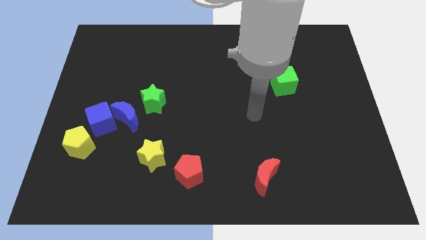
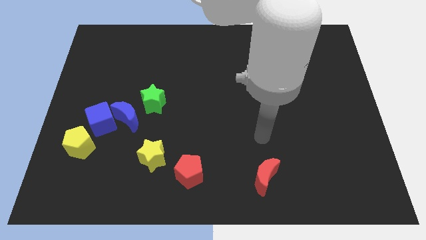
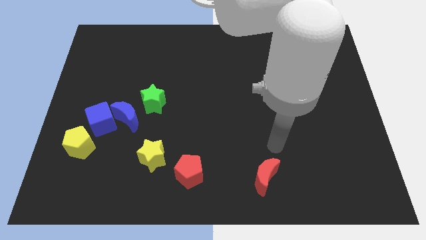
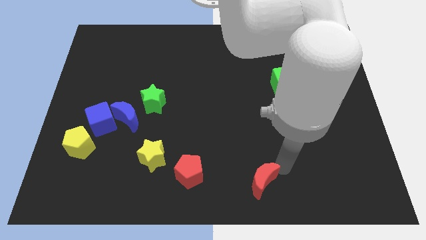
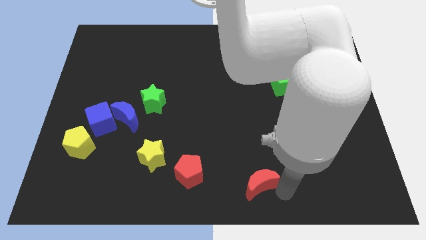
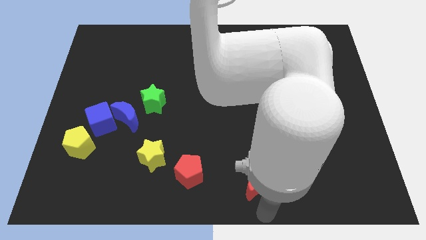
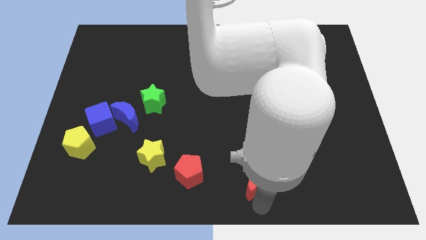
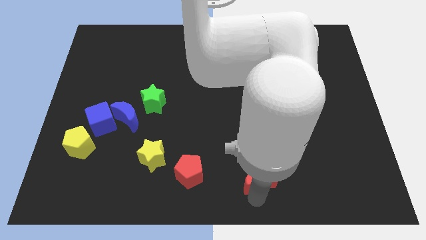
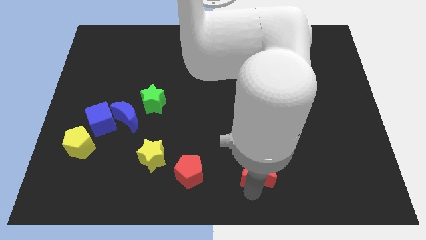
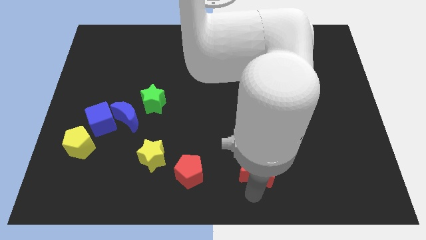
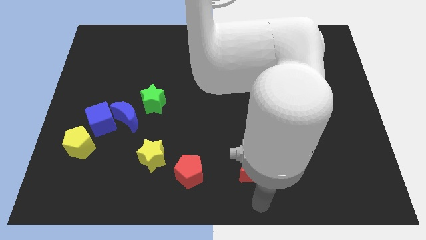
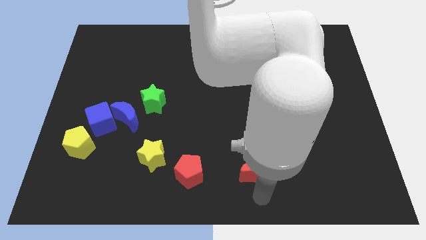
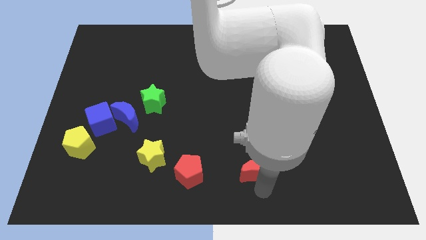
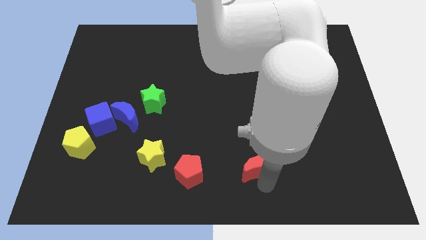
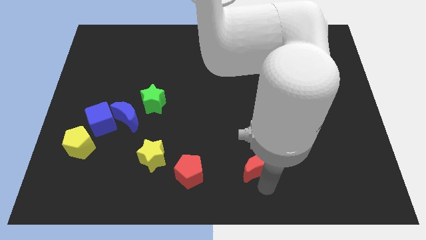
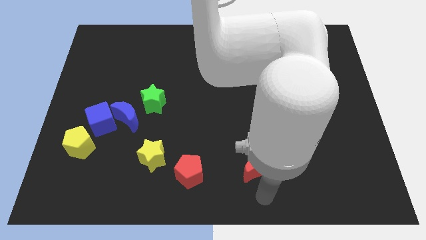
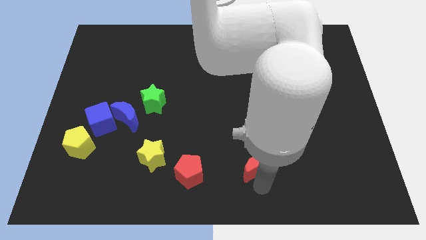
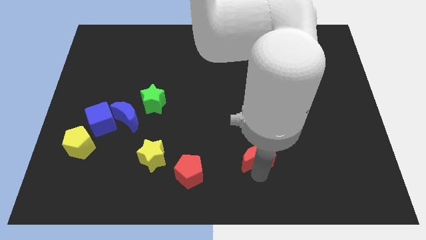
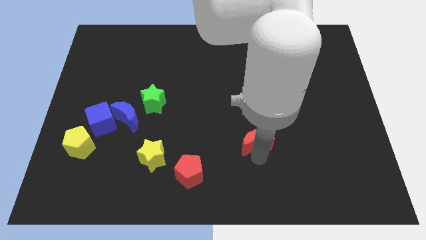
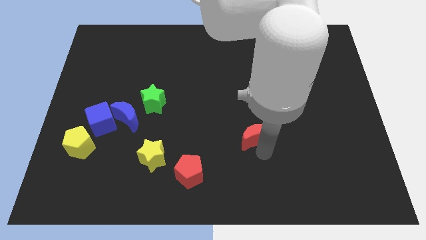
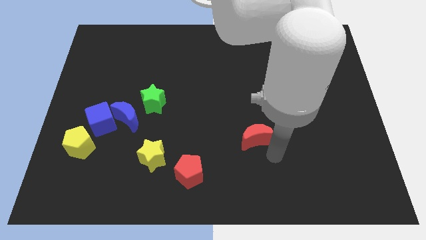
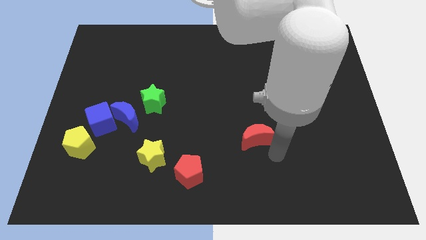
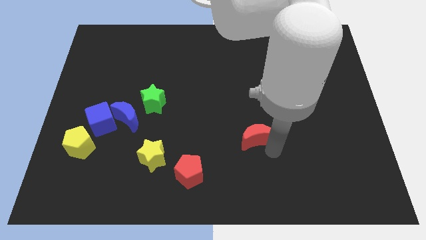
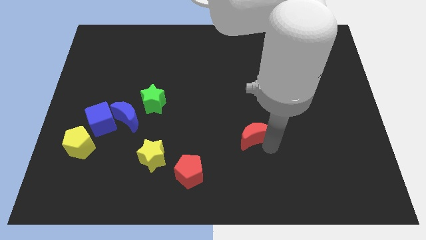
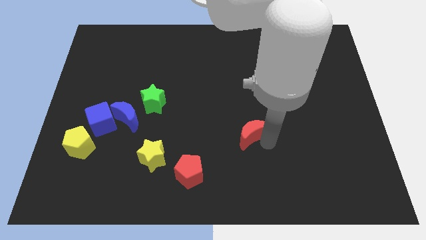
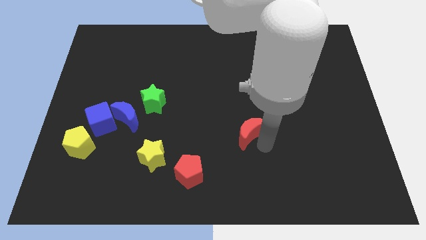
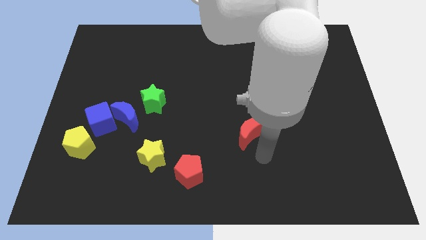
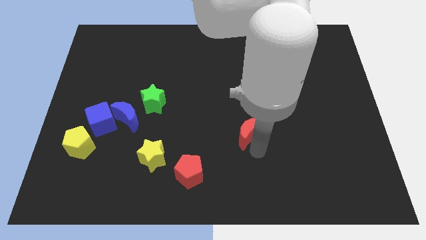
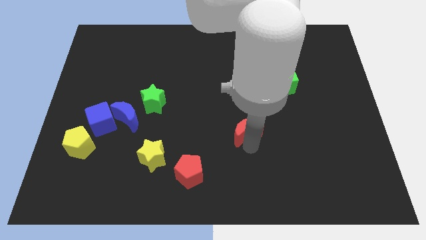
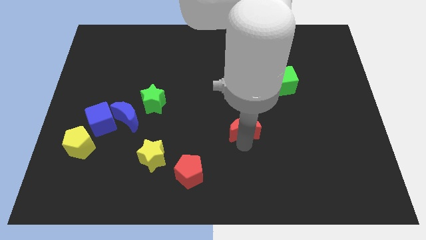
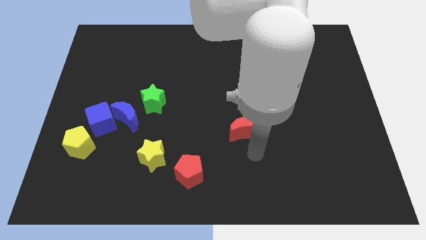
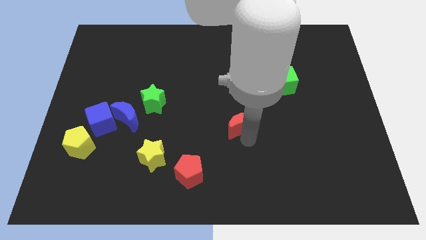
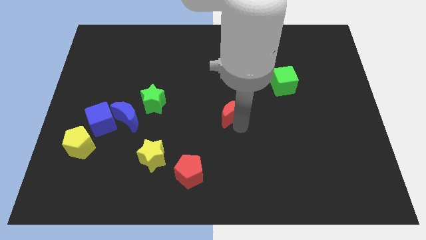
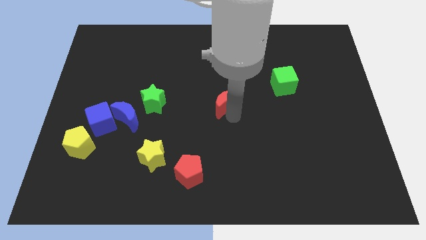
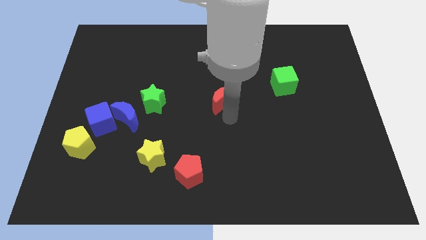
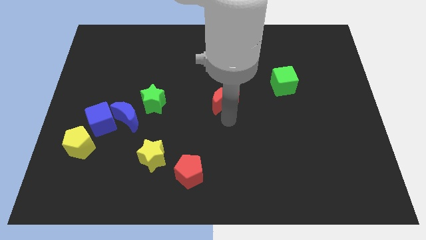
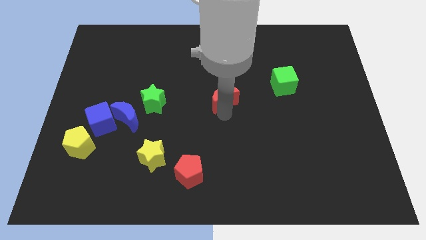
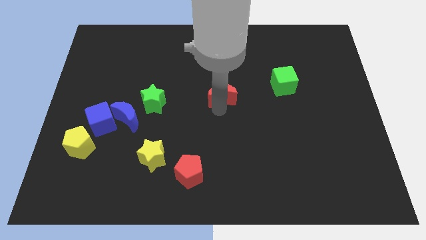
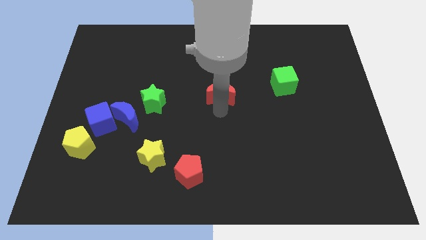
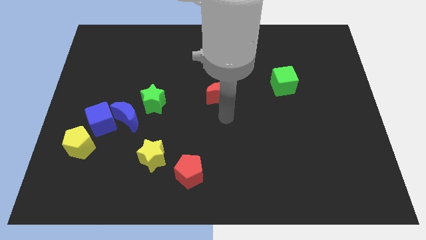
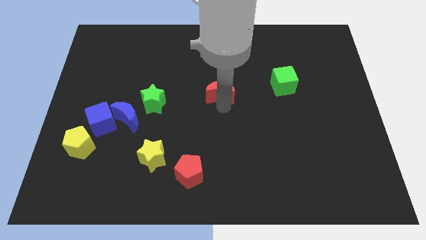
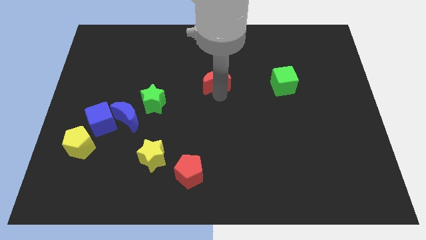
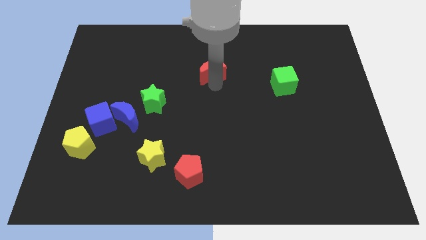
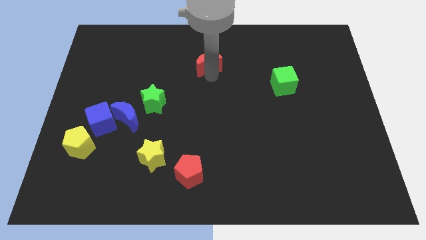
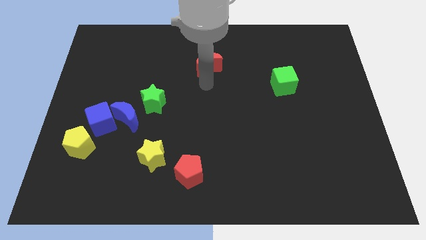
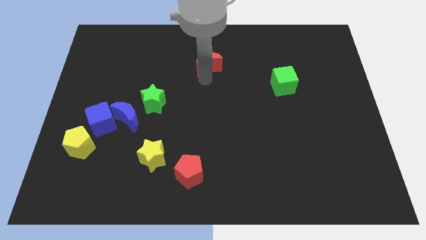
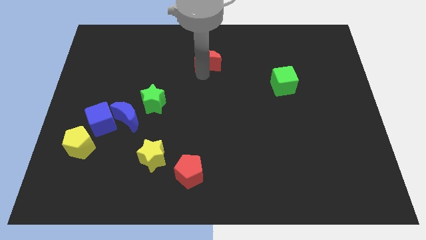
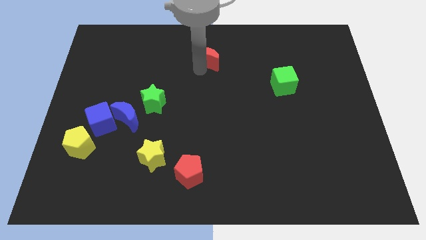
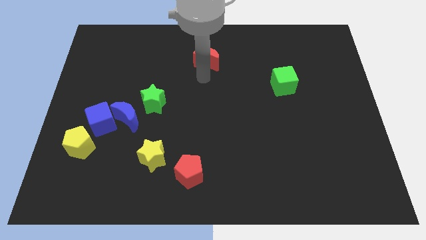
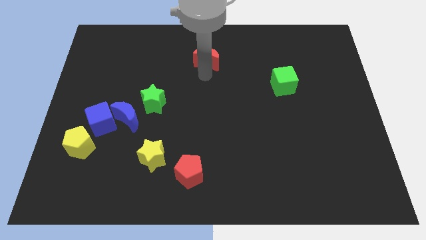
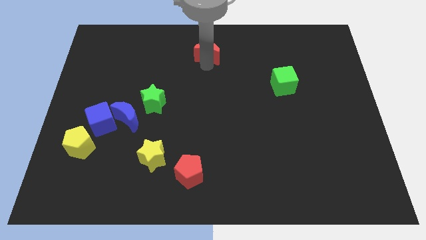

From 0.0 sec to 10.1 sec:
push the red moon to the top

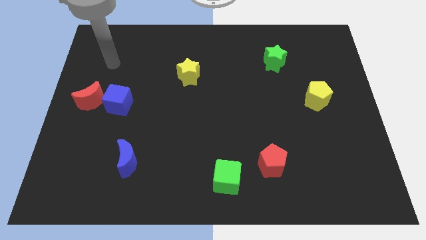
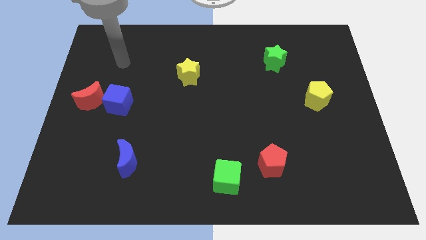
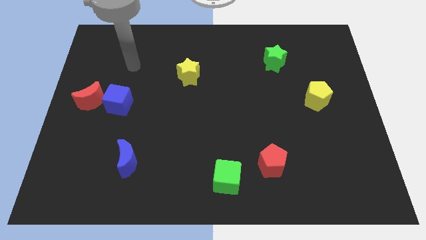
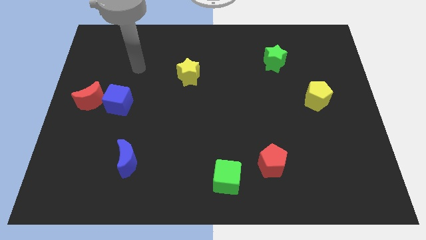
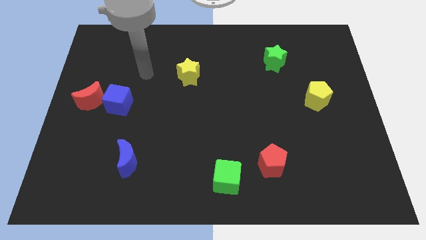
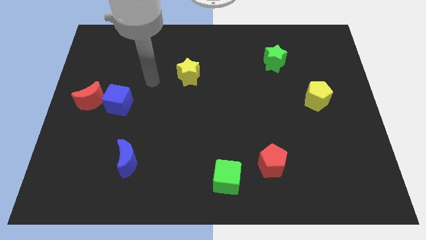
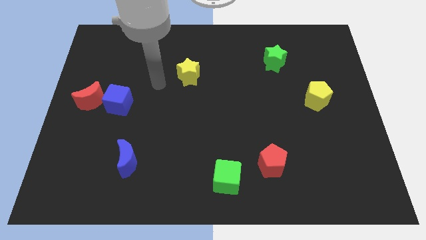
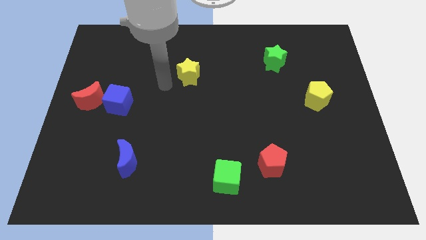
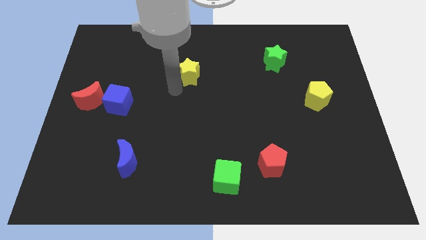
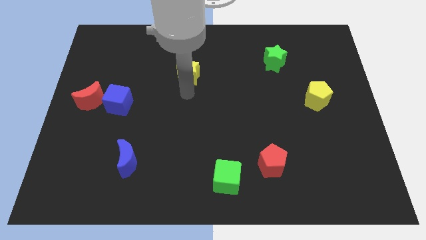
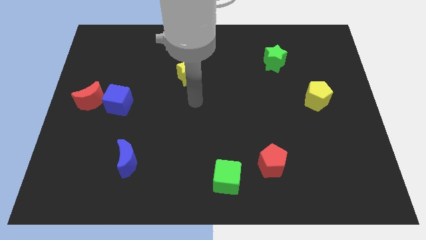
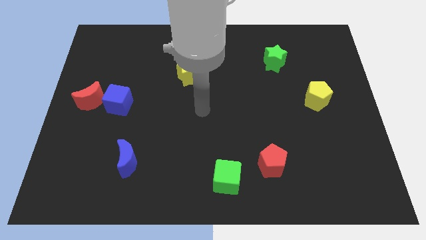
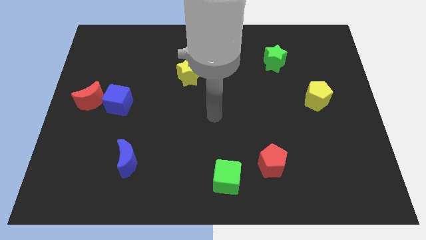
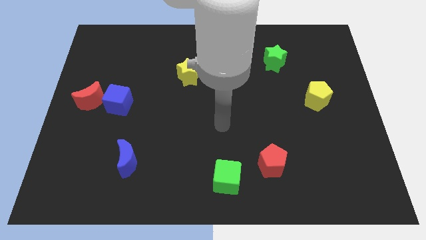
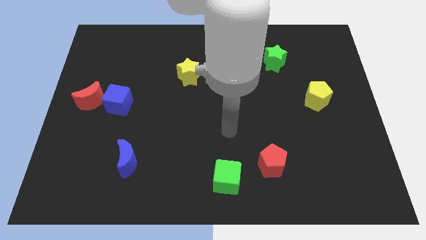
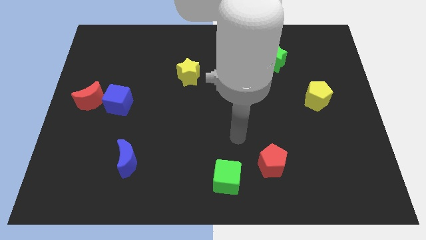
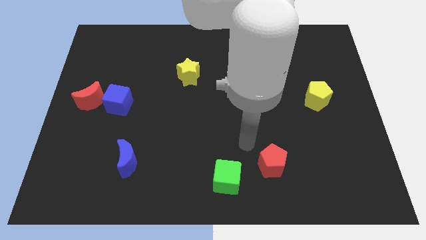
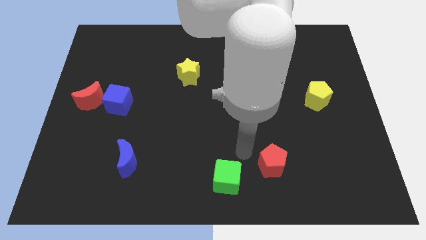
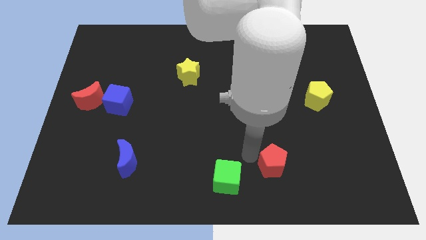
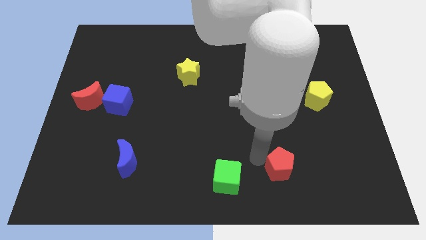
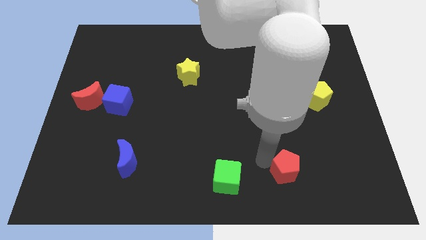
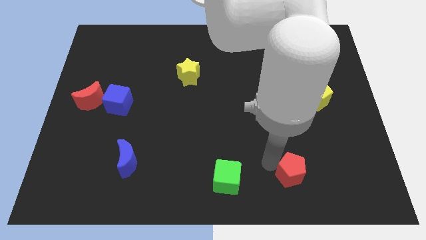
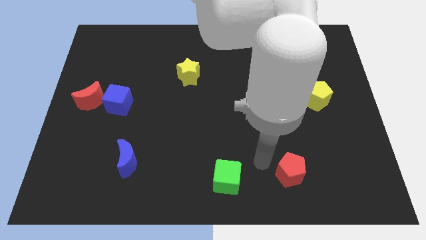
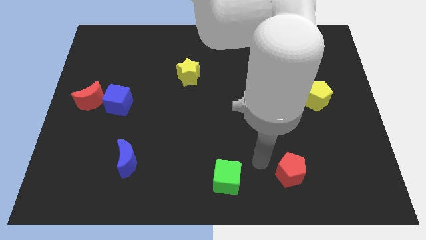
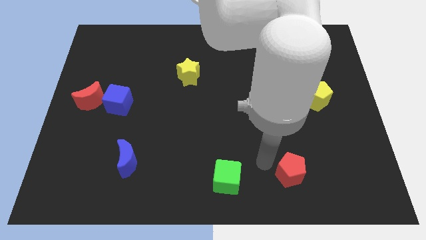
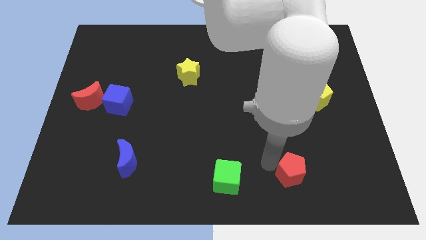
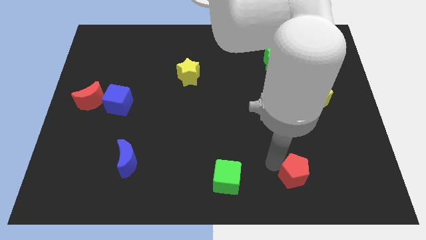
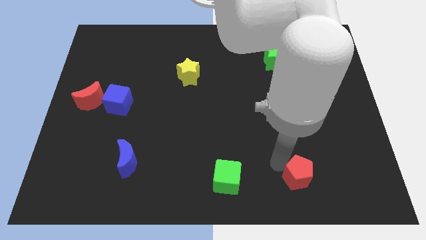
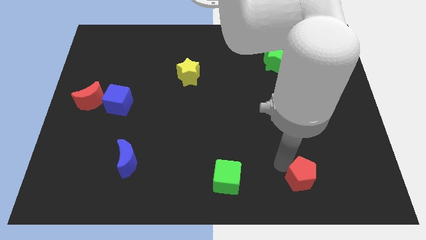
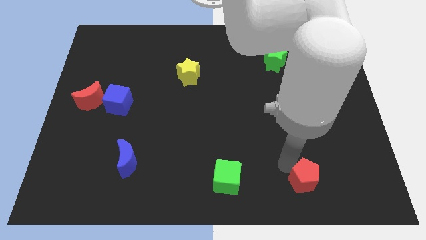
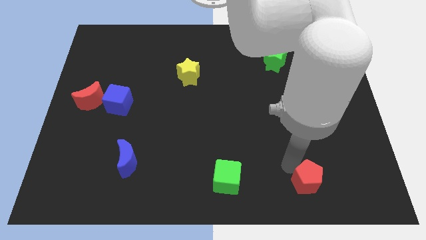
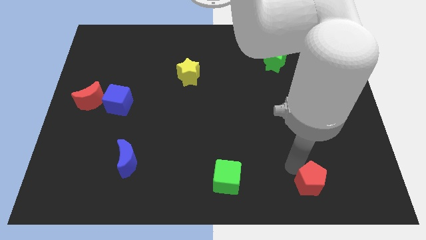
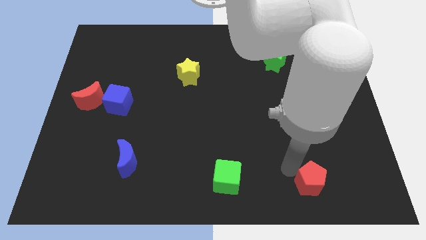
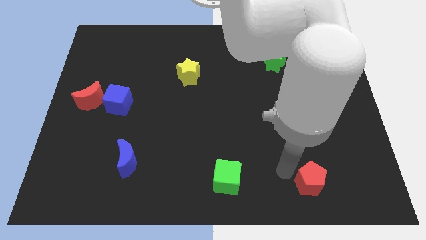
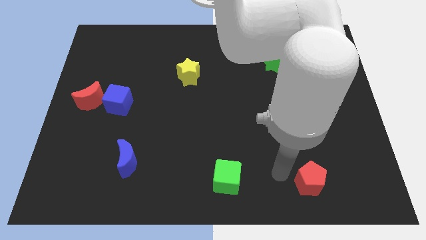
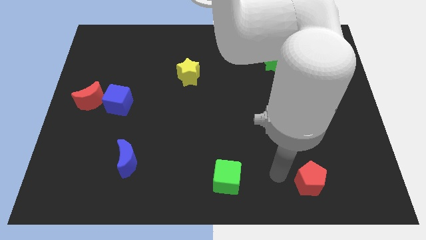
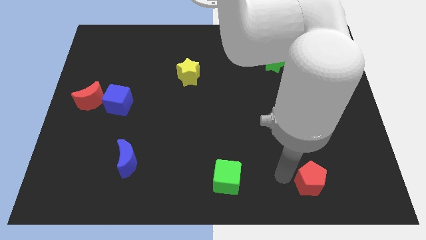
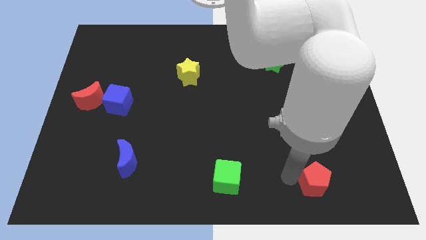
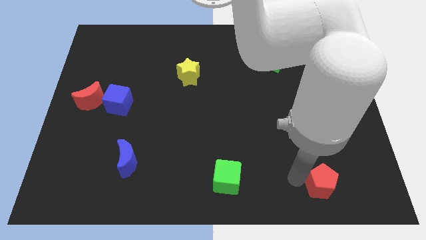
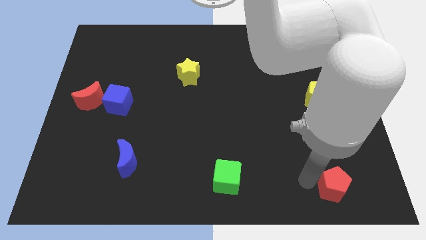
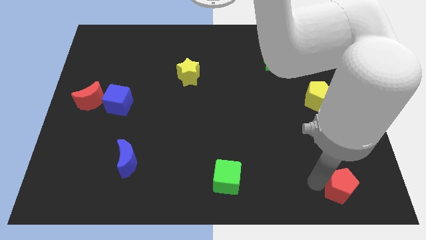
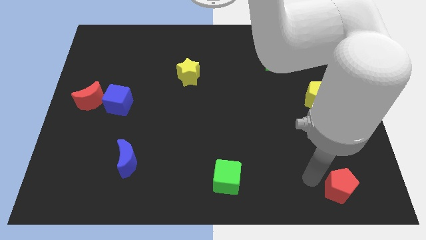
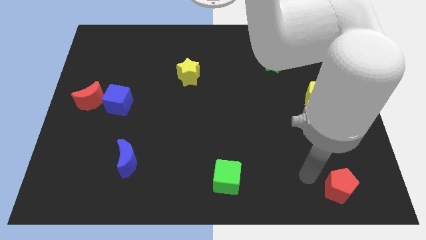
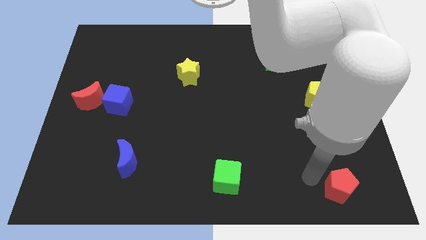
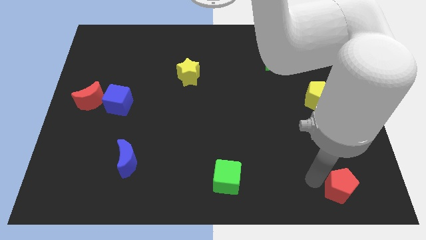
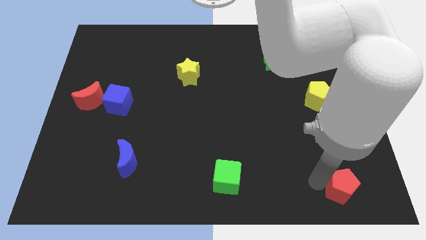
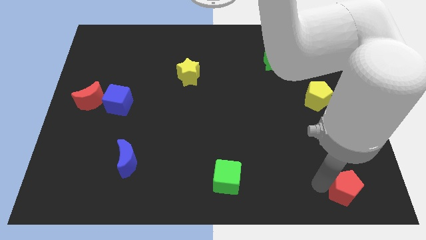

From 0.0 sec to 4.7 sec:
put the red pentagon to the bottom right
